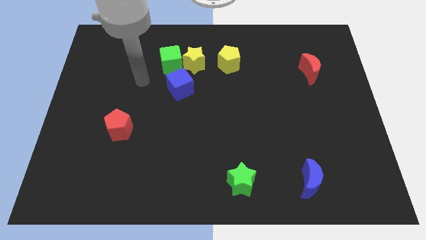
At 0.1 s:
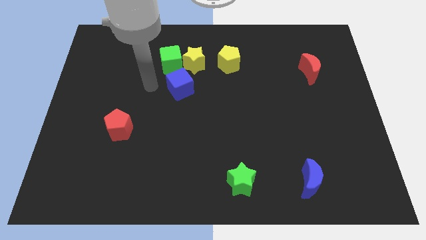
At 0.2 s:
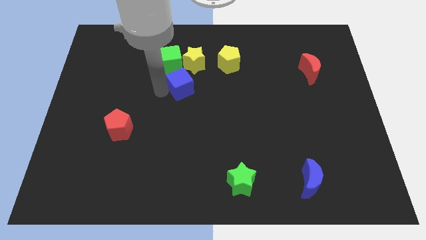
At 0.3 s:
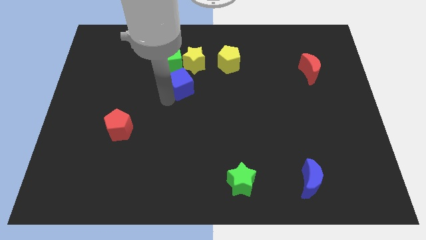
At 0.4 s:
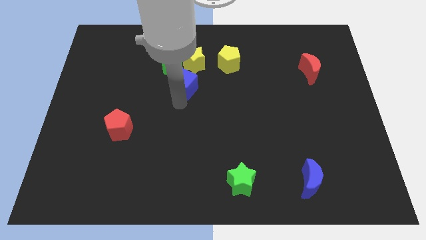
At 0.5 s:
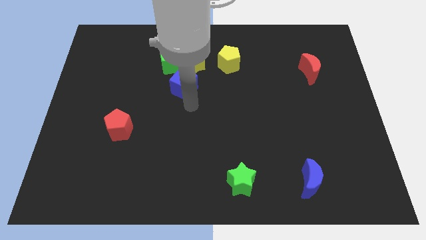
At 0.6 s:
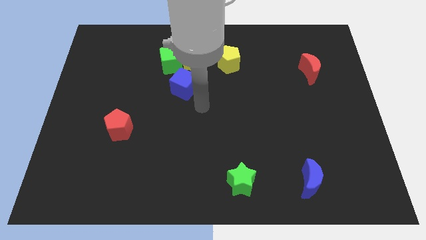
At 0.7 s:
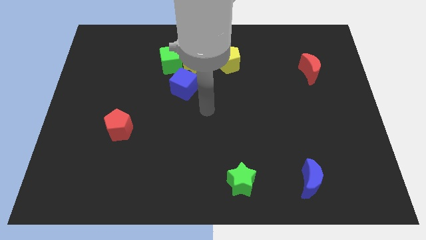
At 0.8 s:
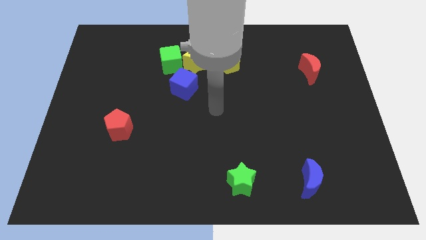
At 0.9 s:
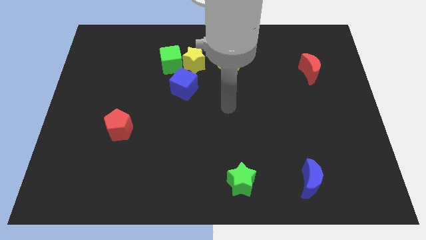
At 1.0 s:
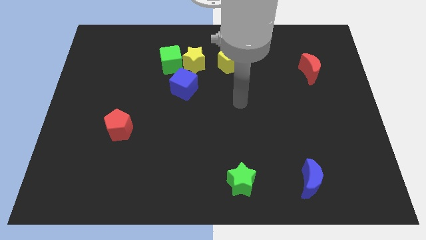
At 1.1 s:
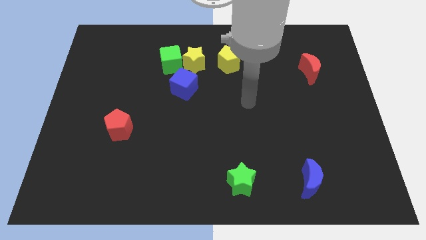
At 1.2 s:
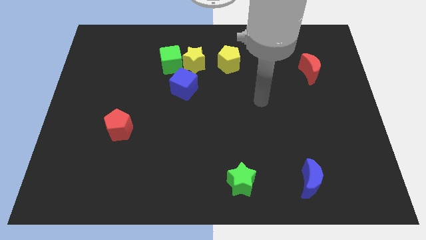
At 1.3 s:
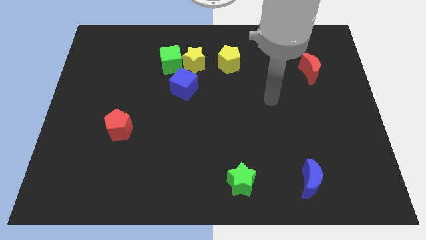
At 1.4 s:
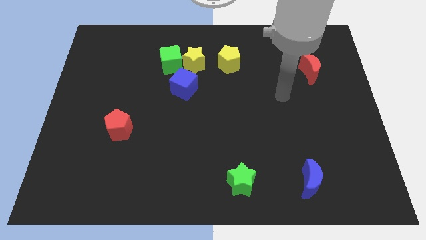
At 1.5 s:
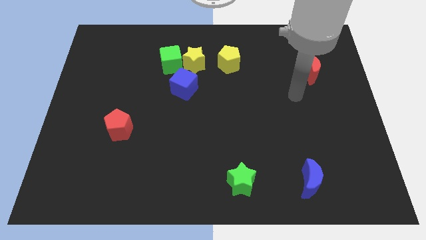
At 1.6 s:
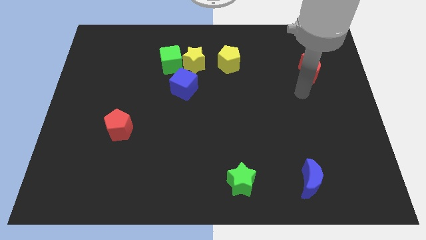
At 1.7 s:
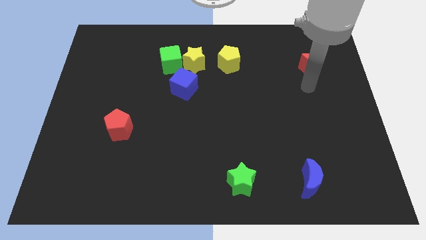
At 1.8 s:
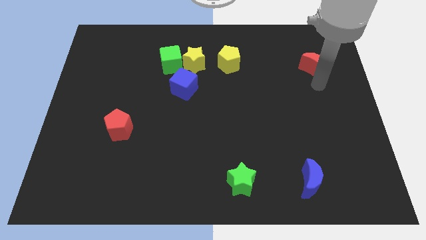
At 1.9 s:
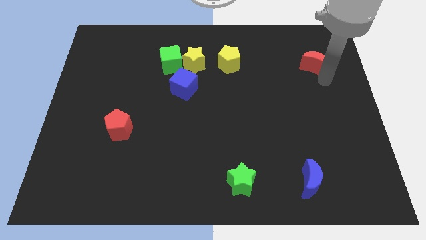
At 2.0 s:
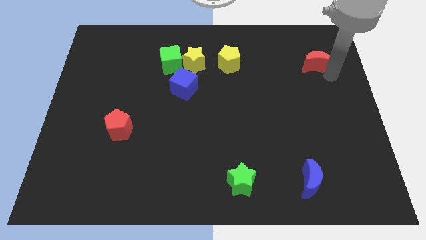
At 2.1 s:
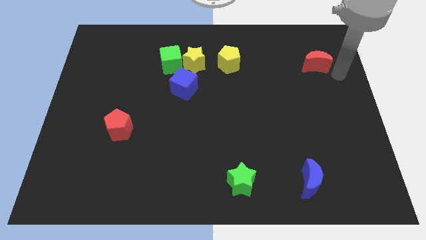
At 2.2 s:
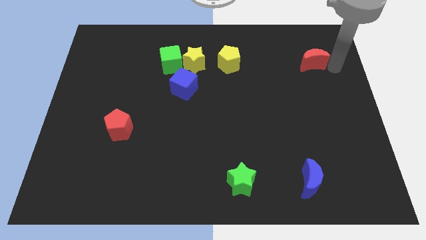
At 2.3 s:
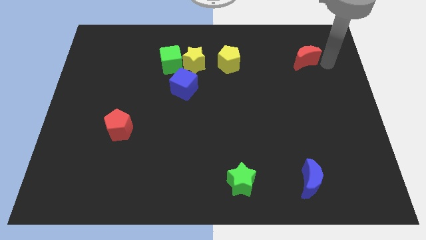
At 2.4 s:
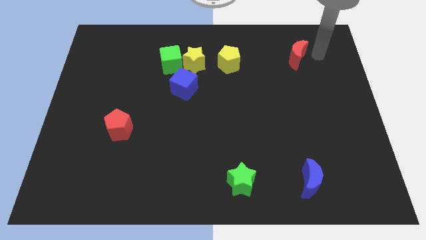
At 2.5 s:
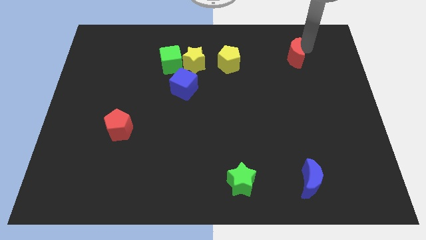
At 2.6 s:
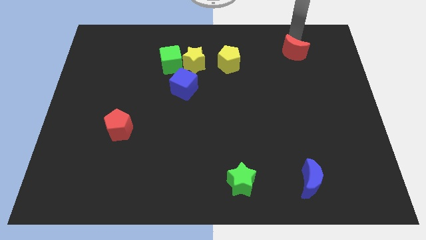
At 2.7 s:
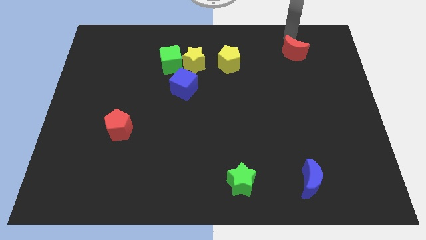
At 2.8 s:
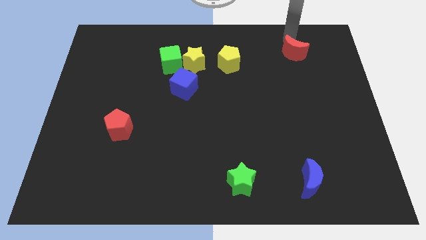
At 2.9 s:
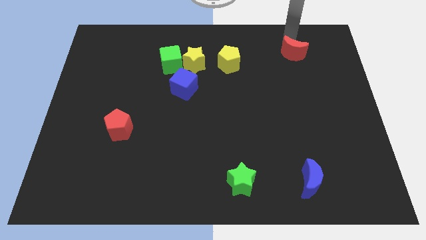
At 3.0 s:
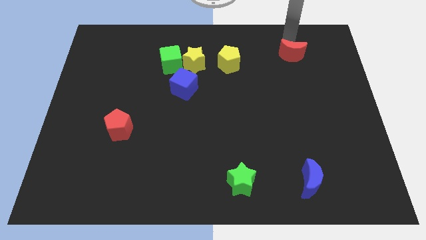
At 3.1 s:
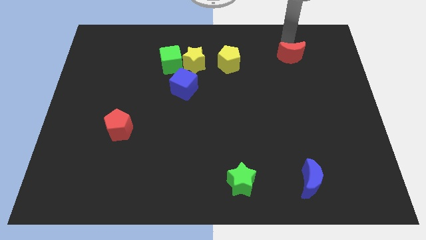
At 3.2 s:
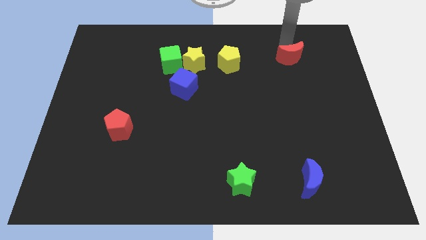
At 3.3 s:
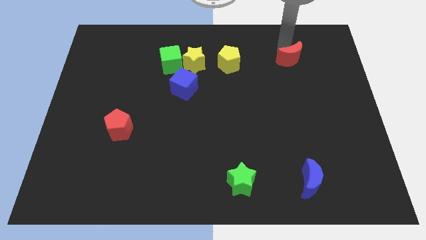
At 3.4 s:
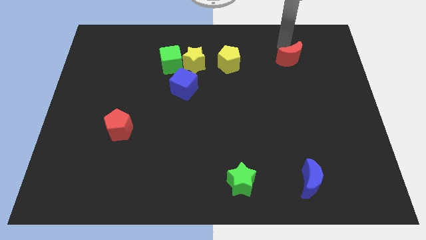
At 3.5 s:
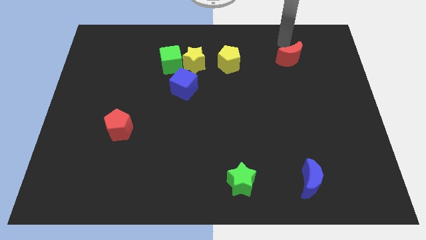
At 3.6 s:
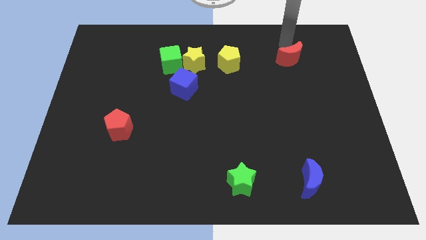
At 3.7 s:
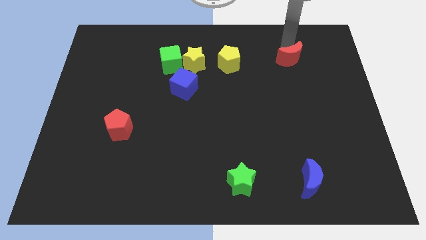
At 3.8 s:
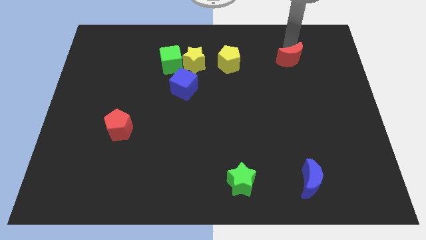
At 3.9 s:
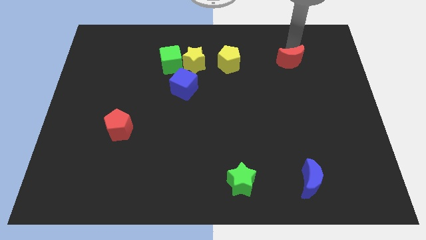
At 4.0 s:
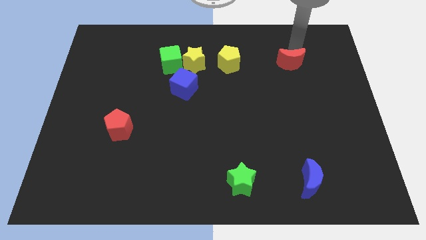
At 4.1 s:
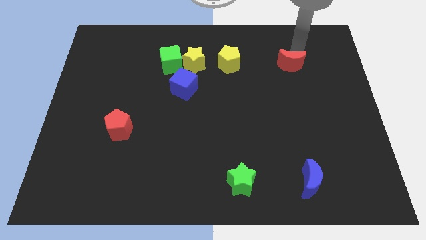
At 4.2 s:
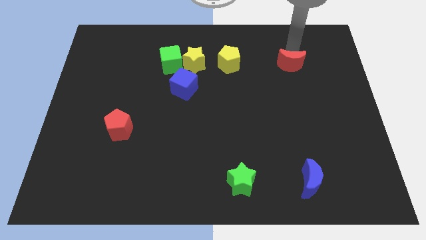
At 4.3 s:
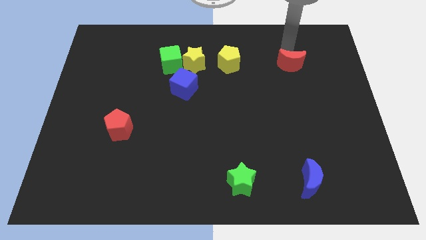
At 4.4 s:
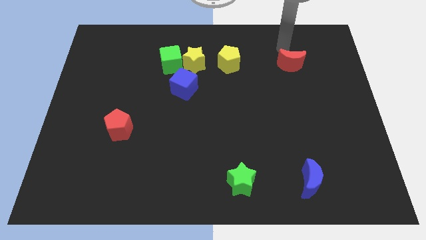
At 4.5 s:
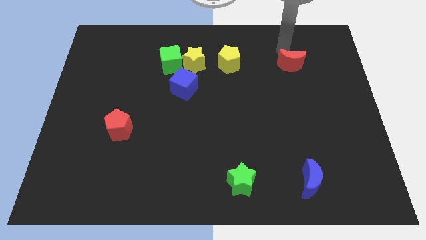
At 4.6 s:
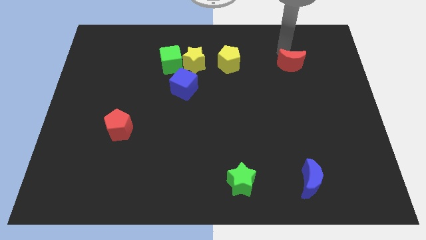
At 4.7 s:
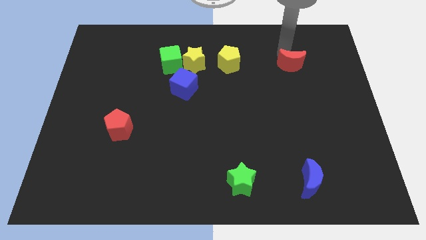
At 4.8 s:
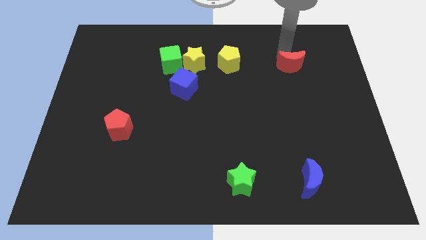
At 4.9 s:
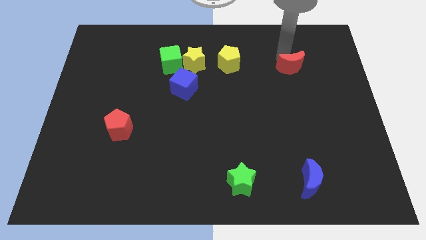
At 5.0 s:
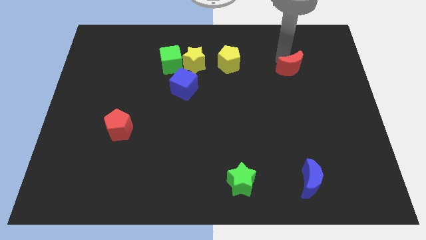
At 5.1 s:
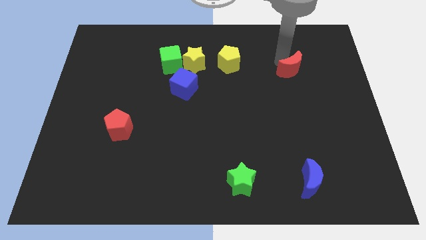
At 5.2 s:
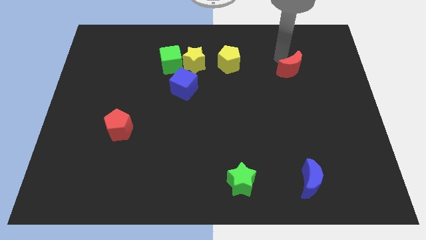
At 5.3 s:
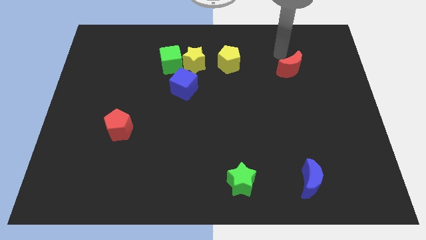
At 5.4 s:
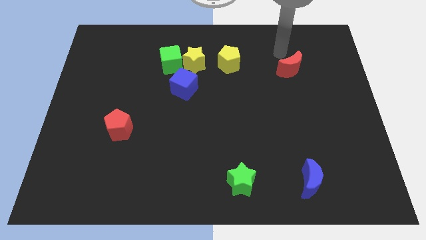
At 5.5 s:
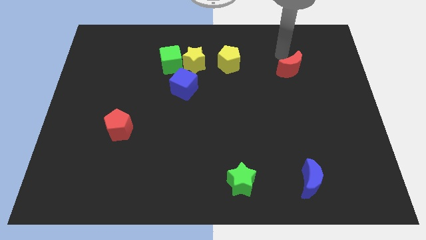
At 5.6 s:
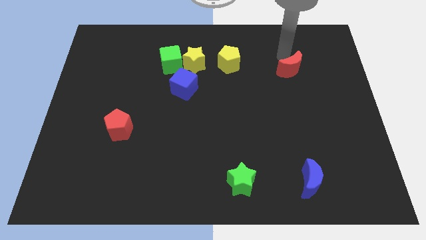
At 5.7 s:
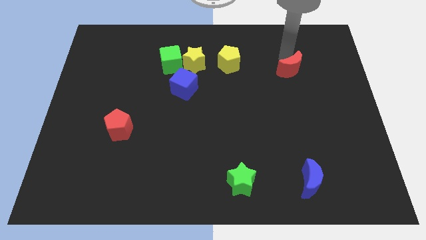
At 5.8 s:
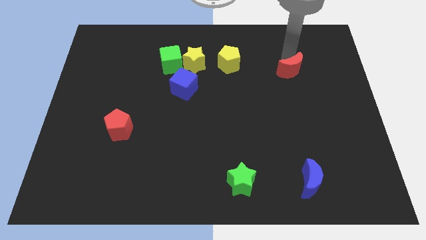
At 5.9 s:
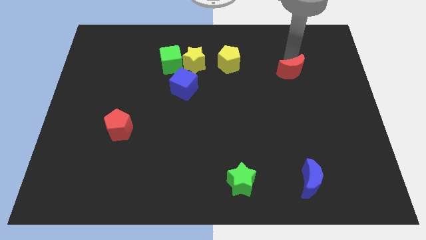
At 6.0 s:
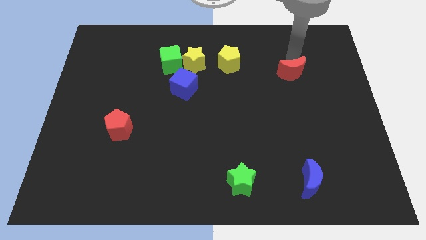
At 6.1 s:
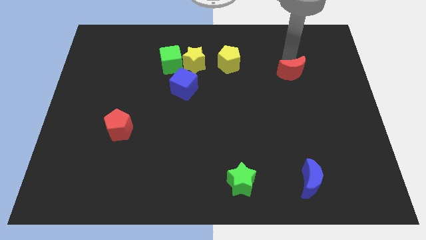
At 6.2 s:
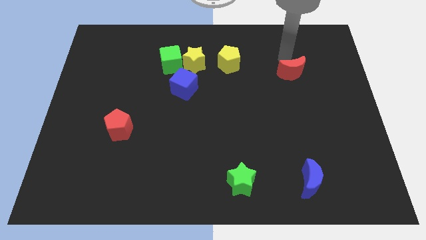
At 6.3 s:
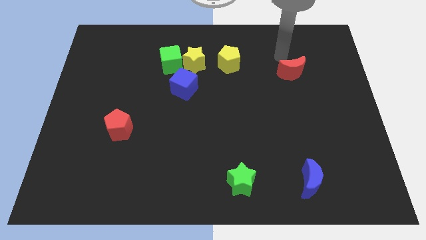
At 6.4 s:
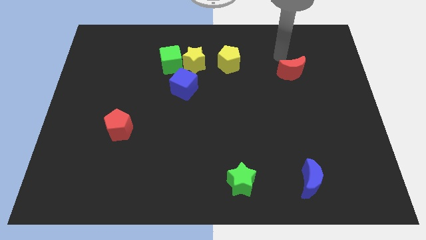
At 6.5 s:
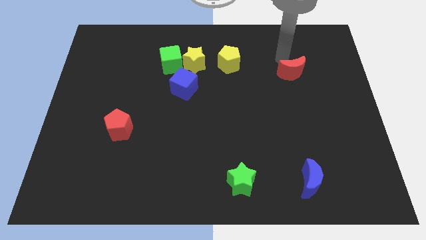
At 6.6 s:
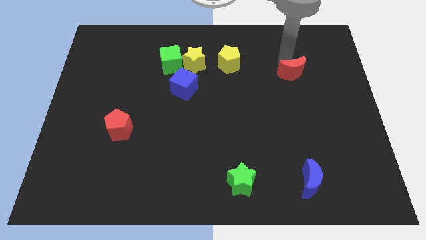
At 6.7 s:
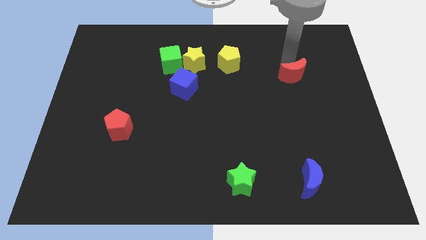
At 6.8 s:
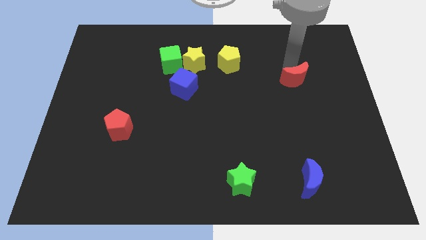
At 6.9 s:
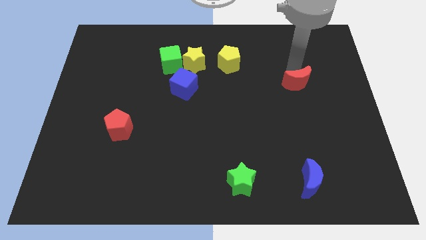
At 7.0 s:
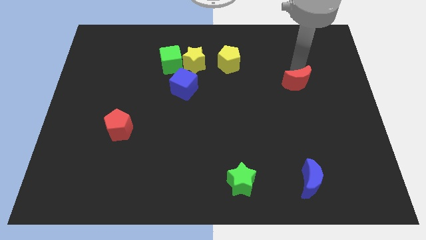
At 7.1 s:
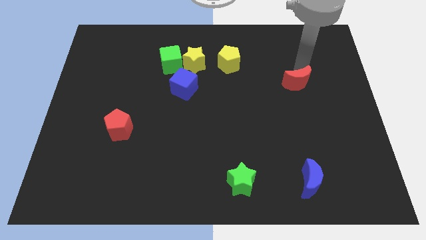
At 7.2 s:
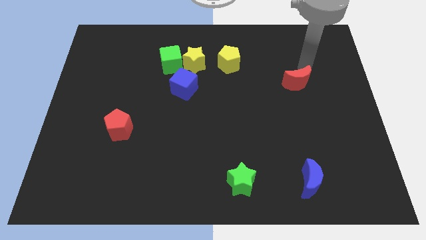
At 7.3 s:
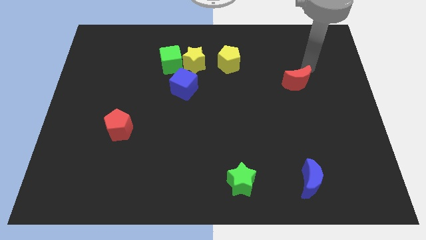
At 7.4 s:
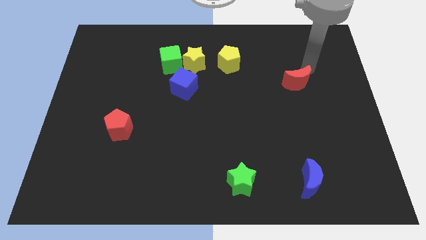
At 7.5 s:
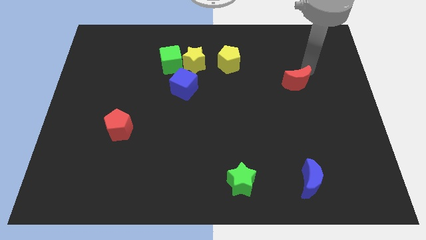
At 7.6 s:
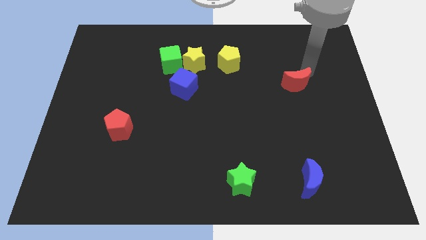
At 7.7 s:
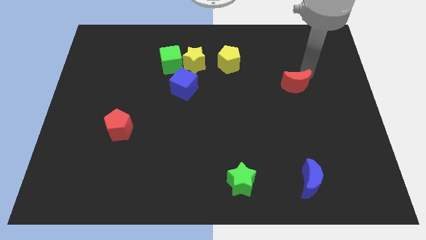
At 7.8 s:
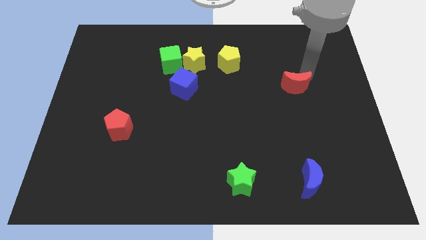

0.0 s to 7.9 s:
slide the red moon diagonally downwards and to the left slightly

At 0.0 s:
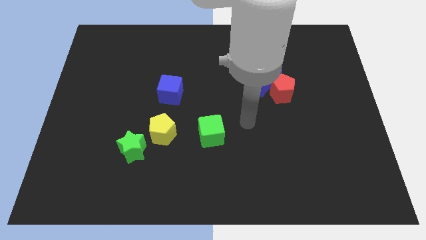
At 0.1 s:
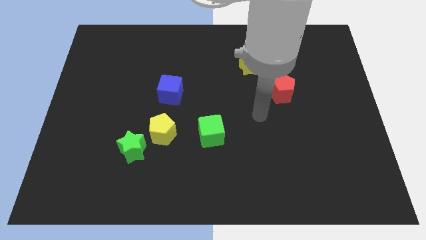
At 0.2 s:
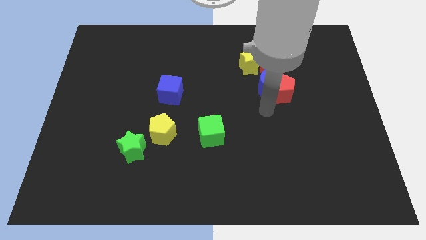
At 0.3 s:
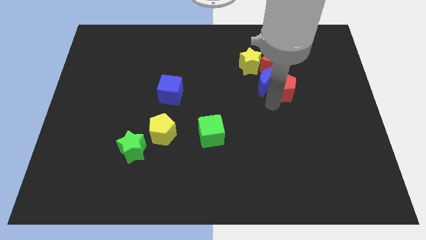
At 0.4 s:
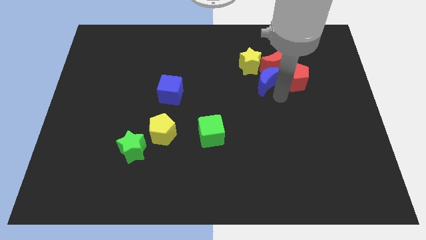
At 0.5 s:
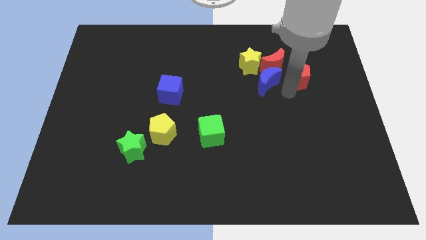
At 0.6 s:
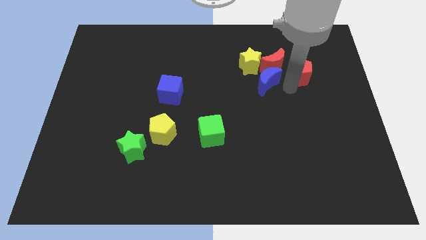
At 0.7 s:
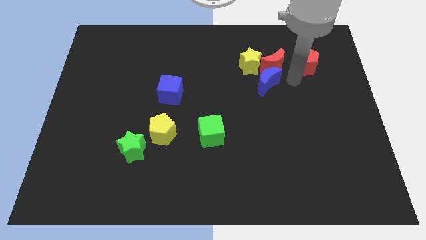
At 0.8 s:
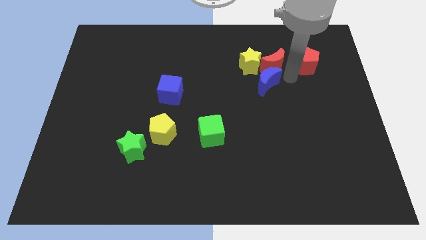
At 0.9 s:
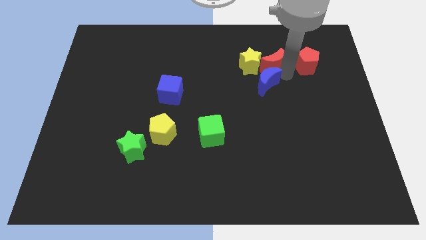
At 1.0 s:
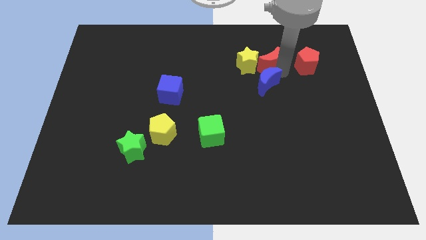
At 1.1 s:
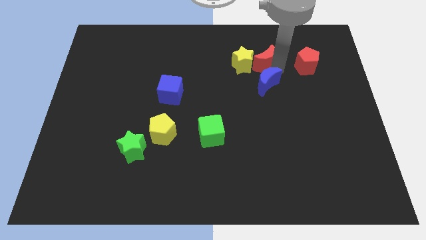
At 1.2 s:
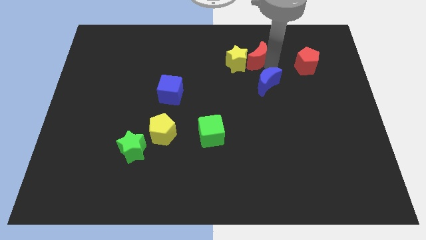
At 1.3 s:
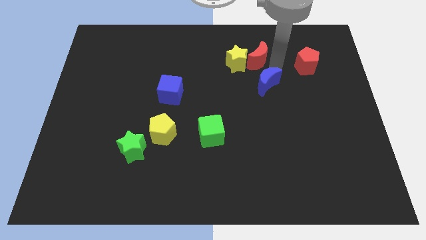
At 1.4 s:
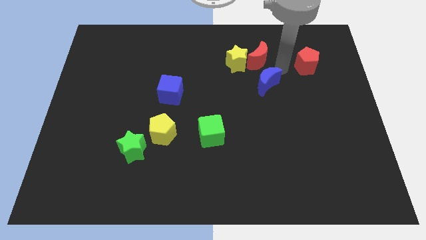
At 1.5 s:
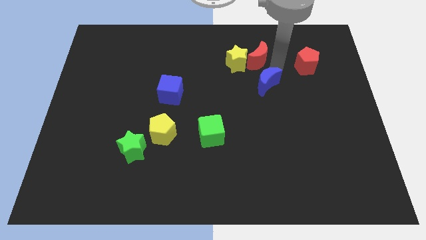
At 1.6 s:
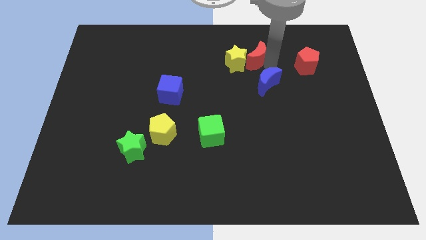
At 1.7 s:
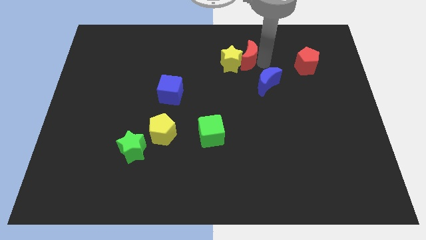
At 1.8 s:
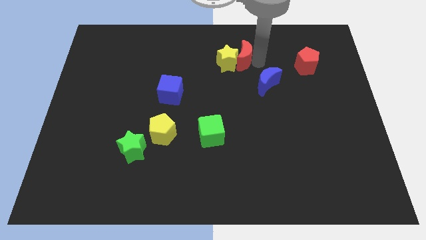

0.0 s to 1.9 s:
slightly slide the red moon left
